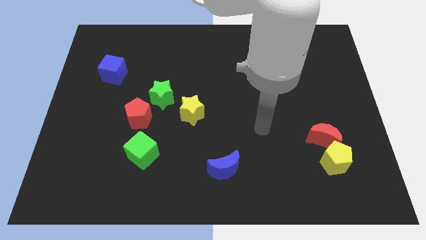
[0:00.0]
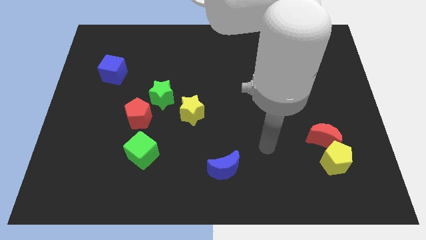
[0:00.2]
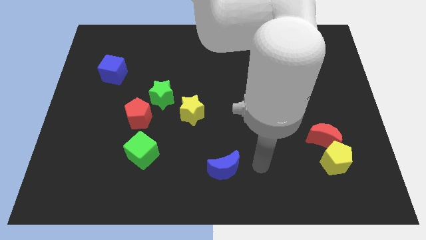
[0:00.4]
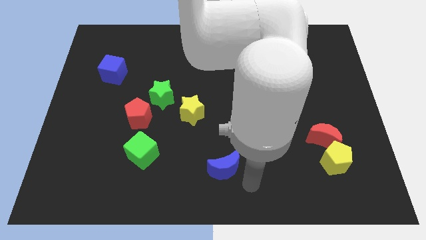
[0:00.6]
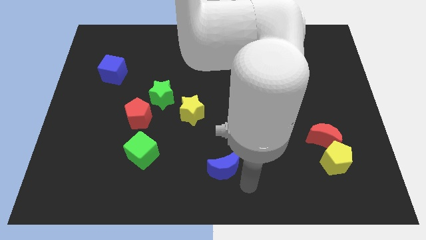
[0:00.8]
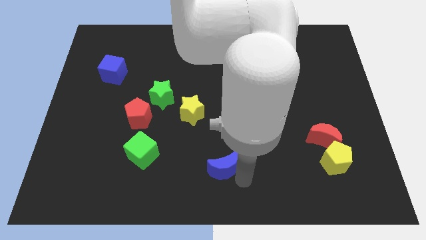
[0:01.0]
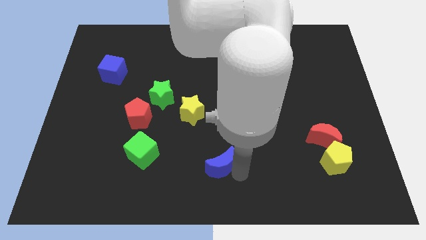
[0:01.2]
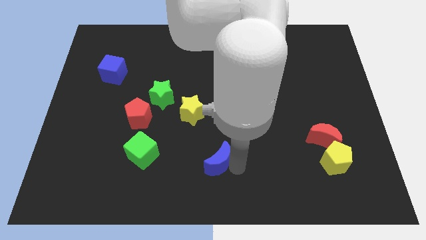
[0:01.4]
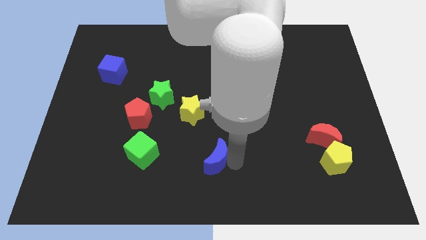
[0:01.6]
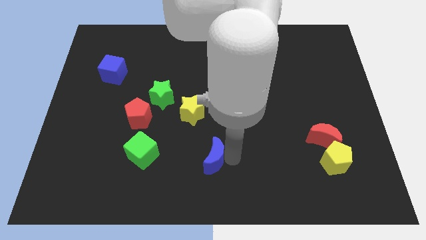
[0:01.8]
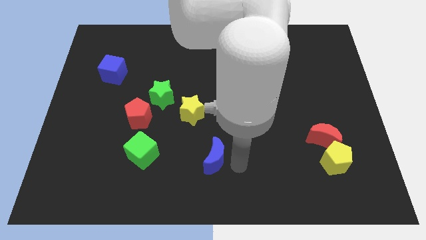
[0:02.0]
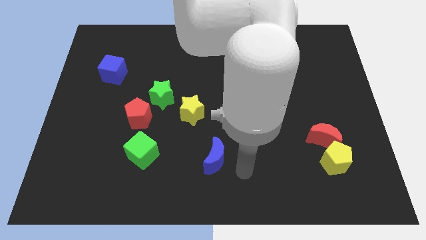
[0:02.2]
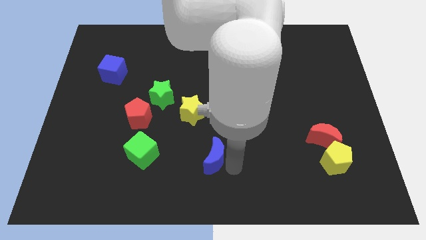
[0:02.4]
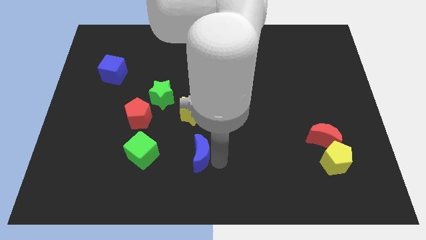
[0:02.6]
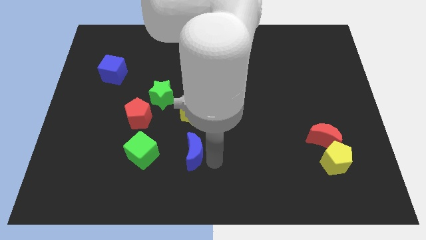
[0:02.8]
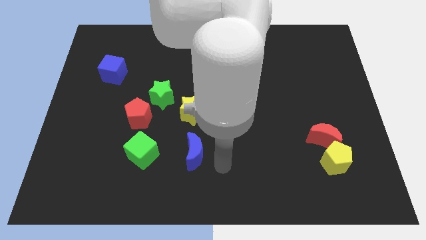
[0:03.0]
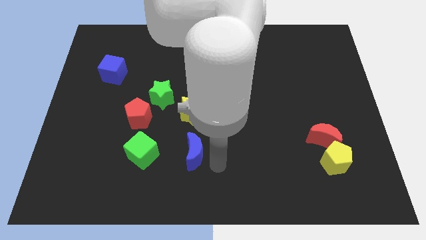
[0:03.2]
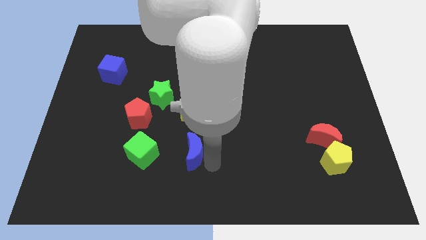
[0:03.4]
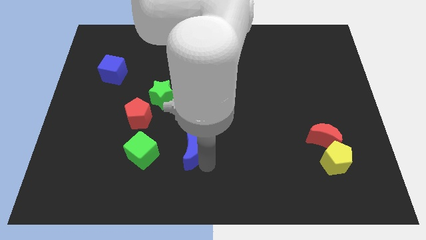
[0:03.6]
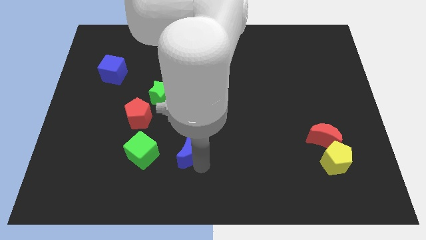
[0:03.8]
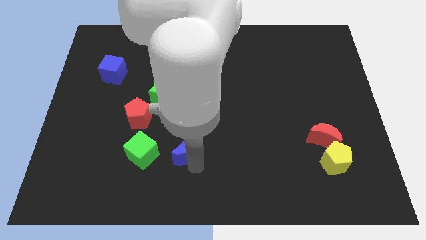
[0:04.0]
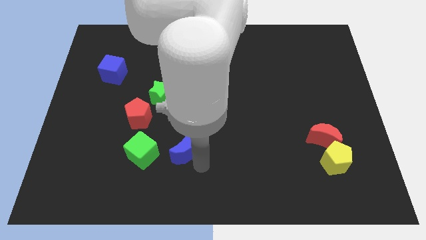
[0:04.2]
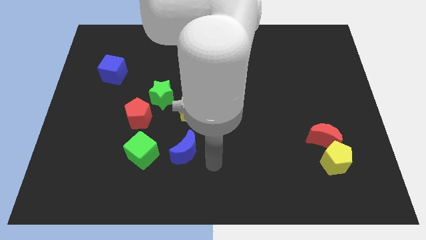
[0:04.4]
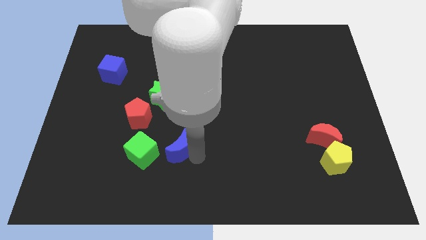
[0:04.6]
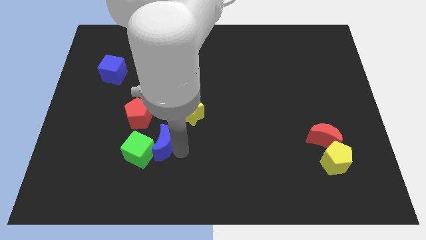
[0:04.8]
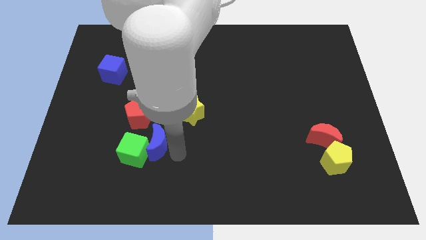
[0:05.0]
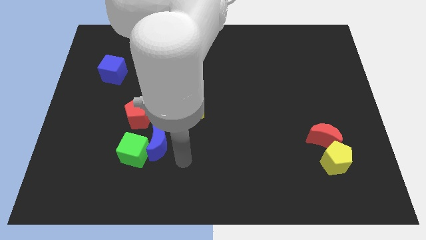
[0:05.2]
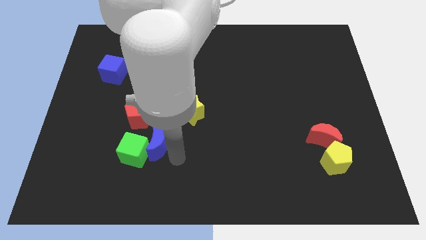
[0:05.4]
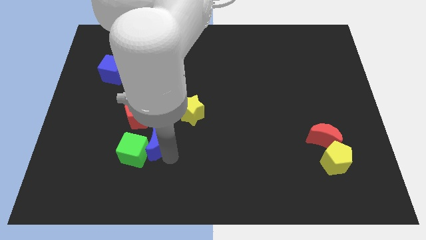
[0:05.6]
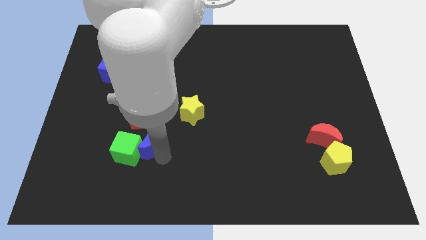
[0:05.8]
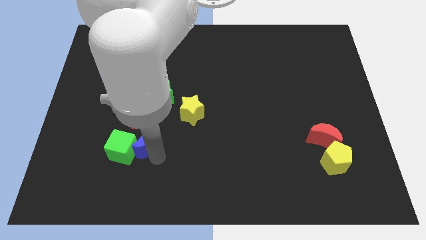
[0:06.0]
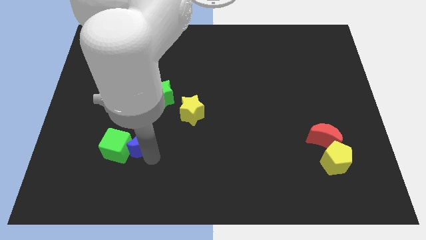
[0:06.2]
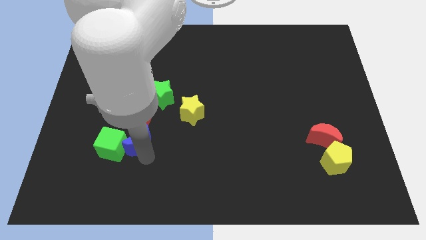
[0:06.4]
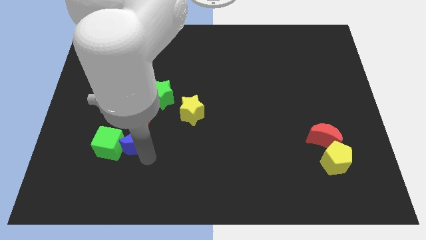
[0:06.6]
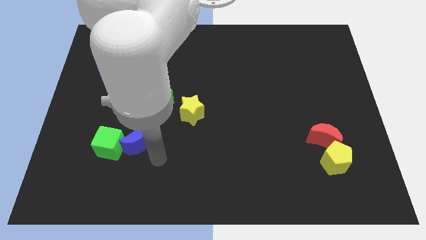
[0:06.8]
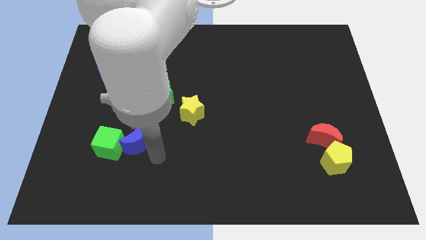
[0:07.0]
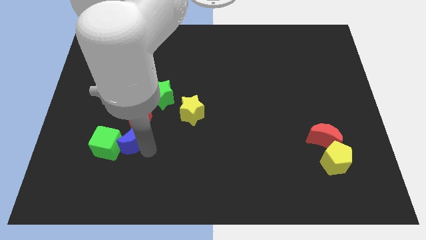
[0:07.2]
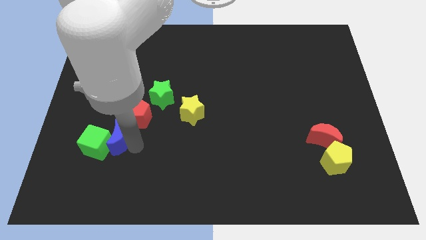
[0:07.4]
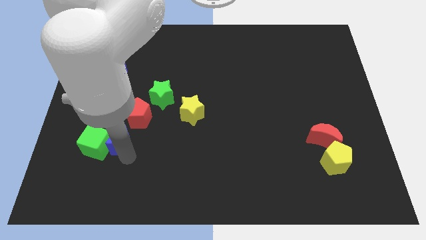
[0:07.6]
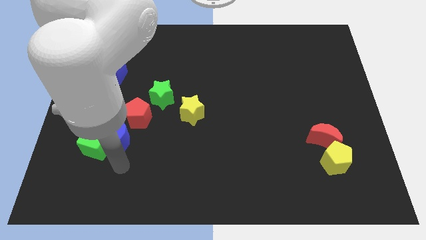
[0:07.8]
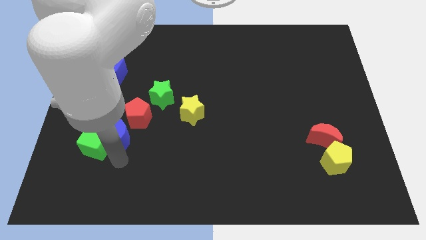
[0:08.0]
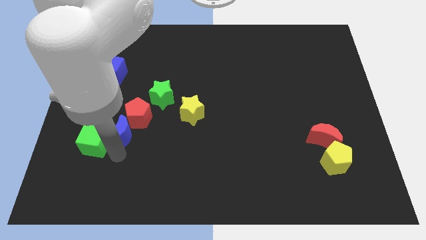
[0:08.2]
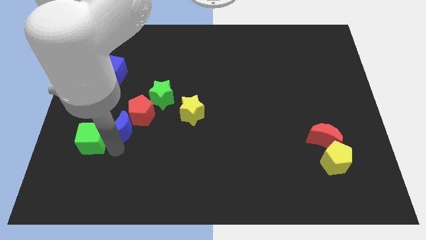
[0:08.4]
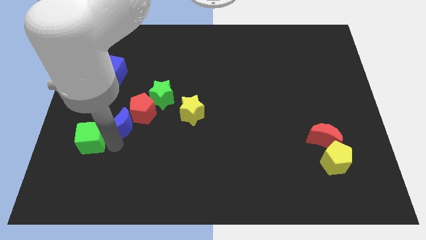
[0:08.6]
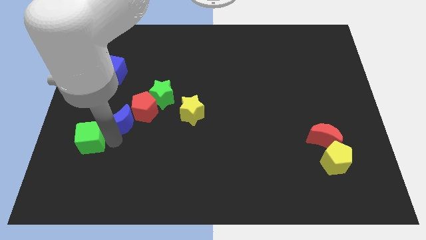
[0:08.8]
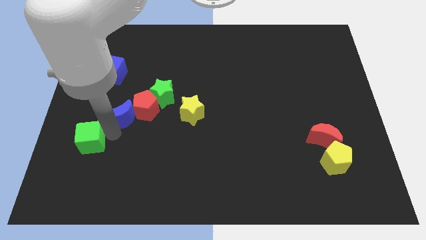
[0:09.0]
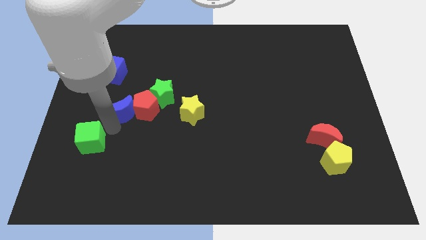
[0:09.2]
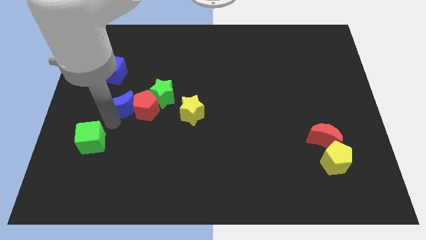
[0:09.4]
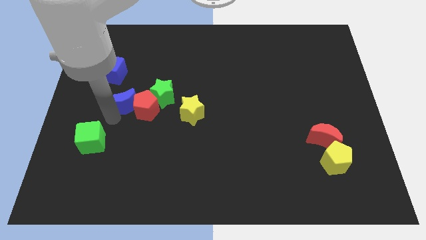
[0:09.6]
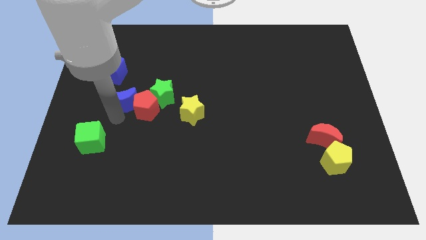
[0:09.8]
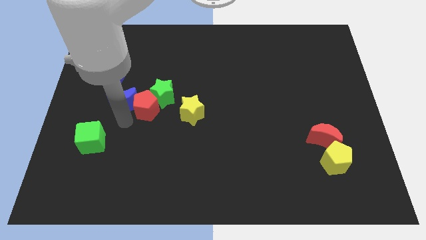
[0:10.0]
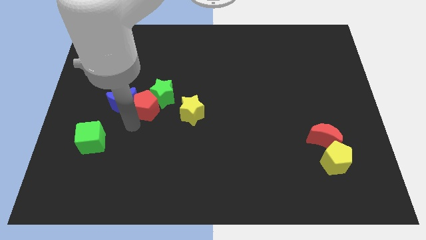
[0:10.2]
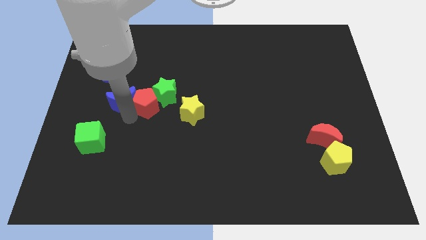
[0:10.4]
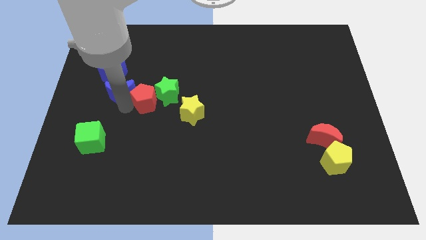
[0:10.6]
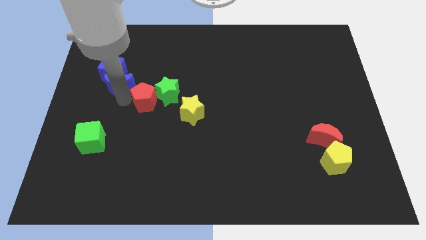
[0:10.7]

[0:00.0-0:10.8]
put the blue moon to the blue cube

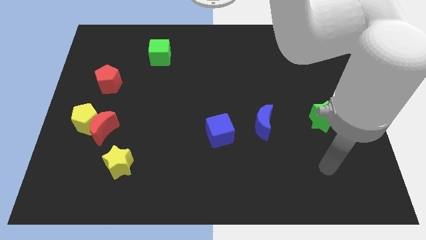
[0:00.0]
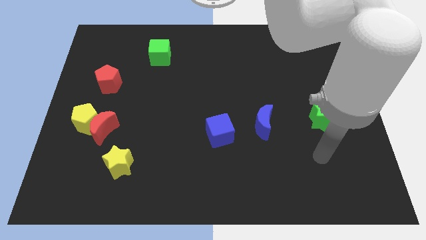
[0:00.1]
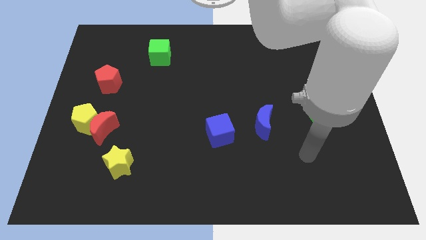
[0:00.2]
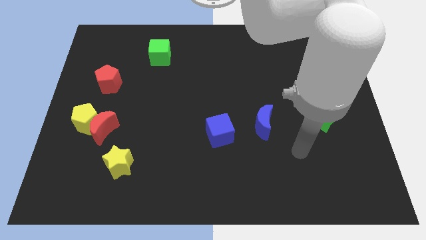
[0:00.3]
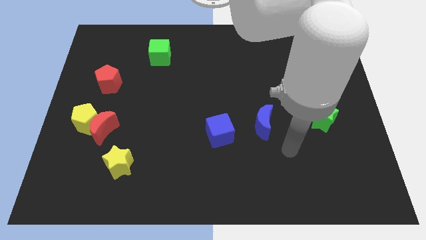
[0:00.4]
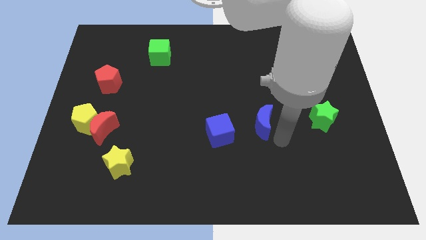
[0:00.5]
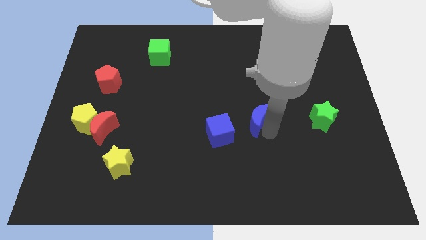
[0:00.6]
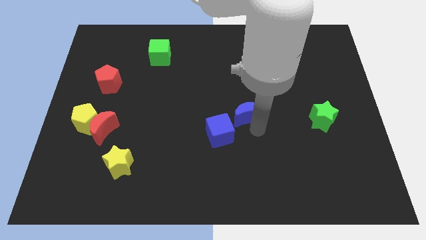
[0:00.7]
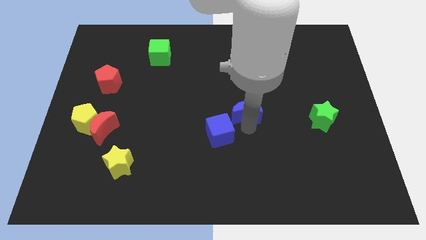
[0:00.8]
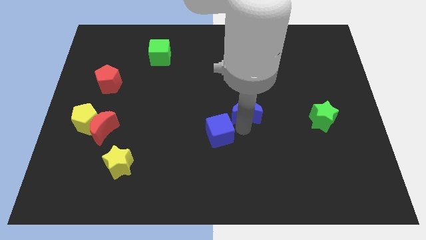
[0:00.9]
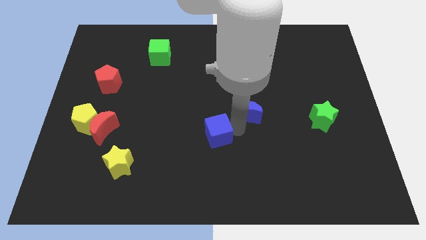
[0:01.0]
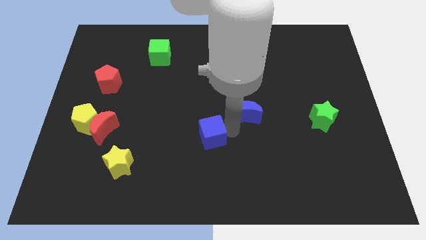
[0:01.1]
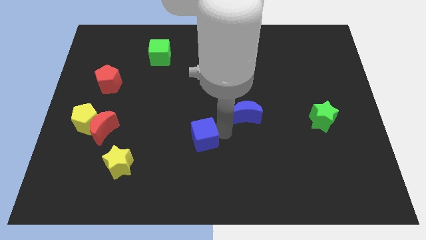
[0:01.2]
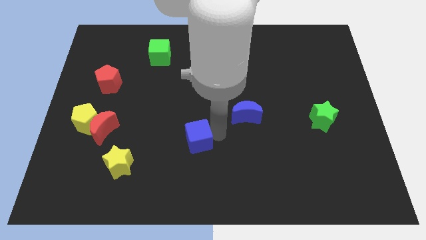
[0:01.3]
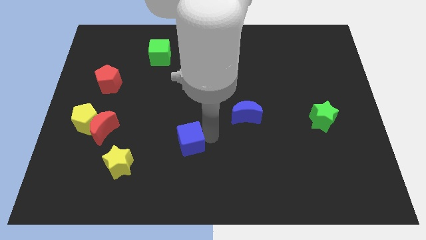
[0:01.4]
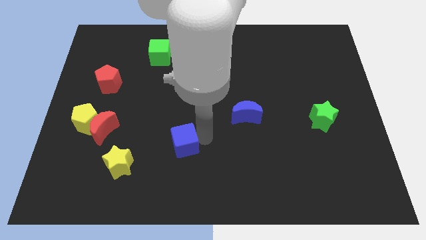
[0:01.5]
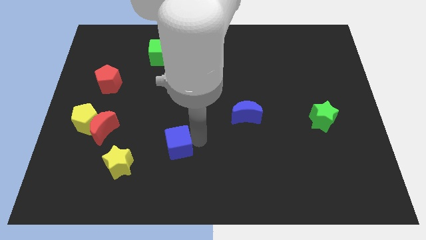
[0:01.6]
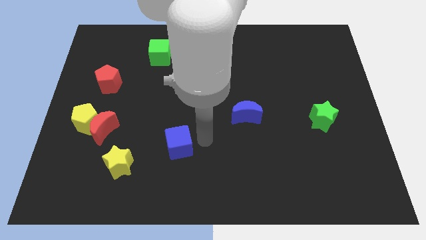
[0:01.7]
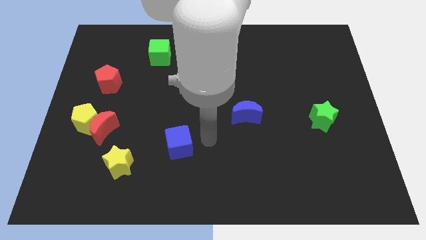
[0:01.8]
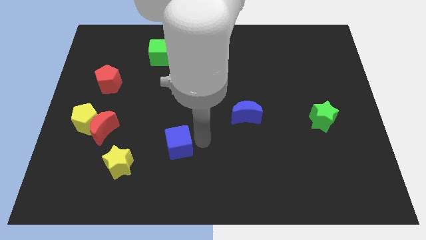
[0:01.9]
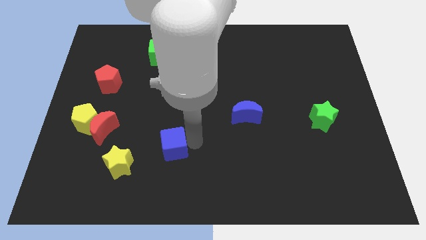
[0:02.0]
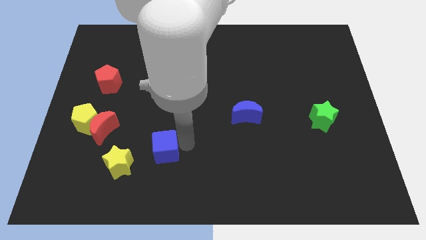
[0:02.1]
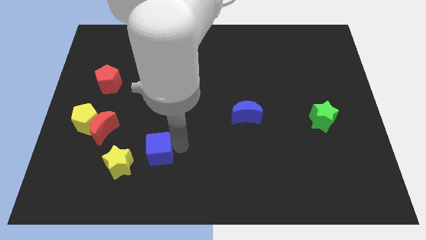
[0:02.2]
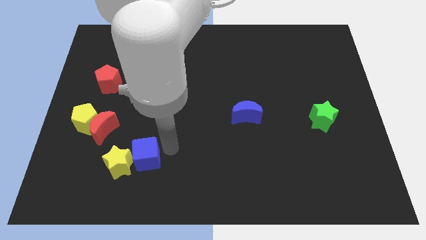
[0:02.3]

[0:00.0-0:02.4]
push the blue cube next to the yellow star

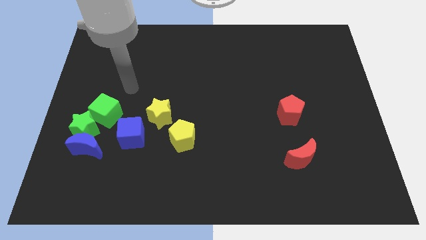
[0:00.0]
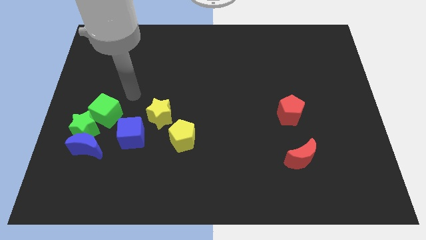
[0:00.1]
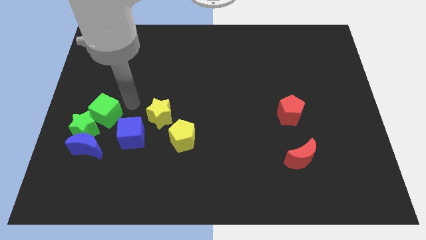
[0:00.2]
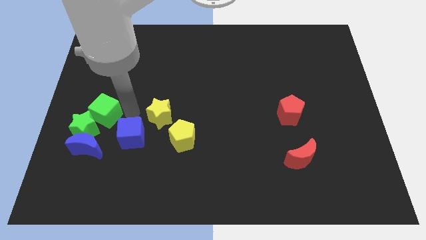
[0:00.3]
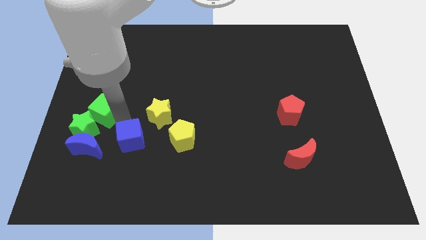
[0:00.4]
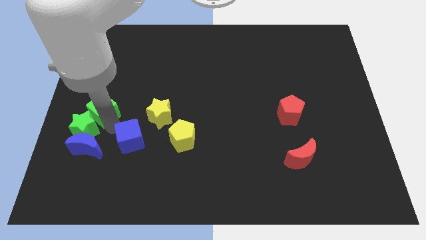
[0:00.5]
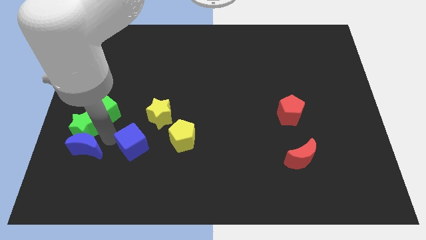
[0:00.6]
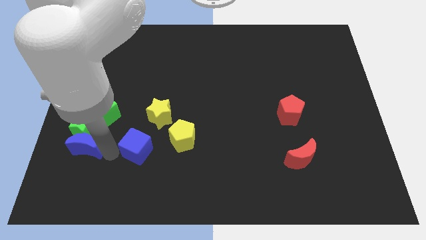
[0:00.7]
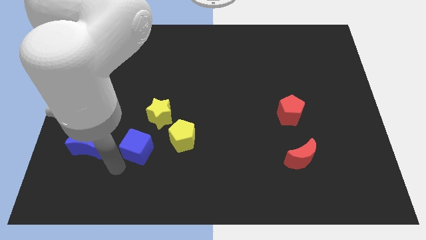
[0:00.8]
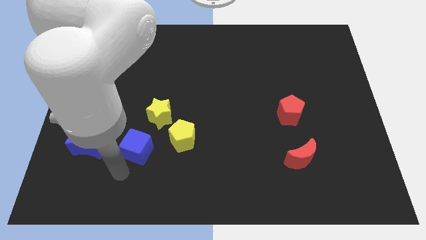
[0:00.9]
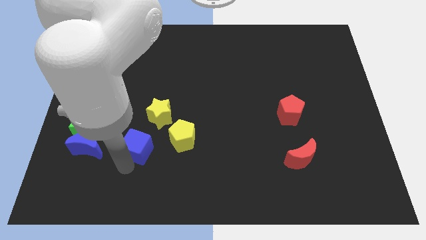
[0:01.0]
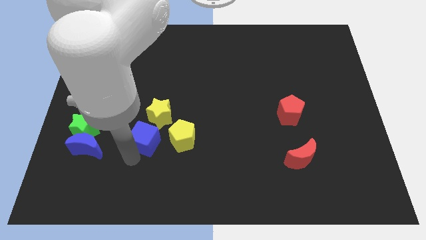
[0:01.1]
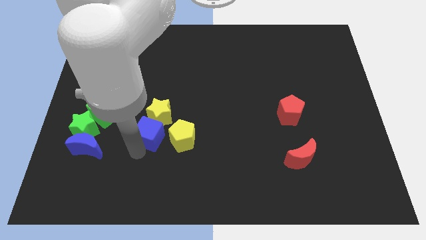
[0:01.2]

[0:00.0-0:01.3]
move the blue cube next to the yellow star
